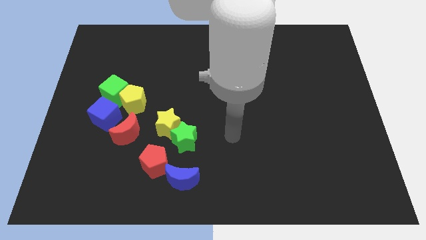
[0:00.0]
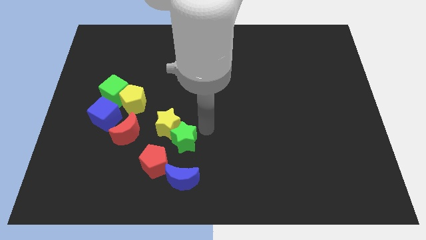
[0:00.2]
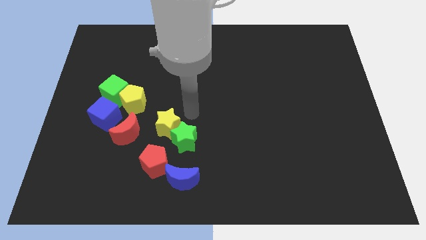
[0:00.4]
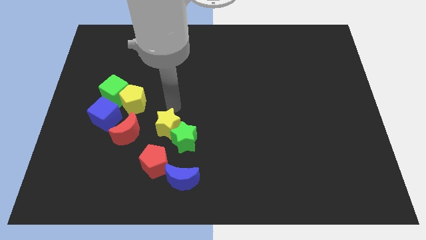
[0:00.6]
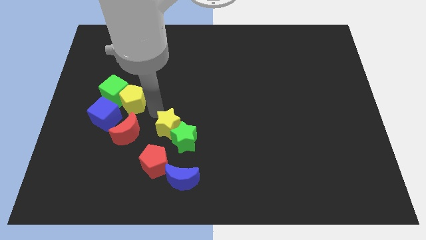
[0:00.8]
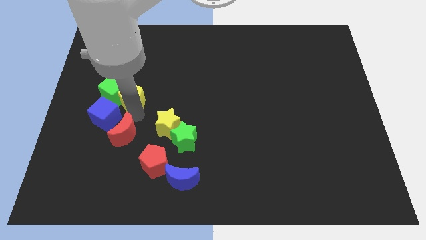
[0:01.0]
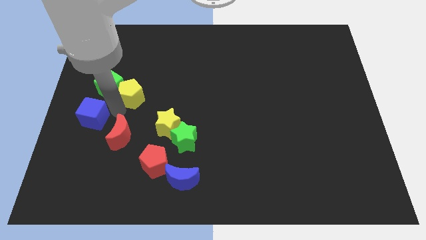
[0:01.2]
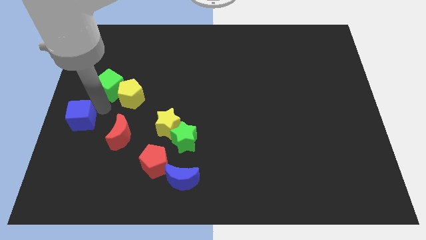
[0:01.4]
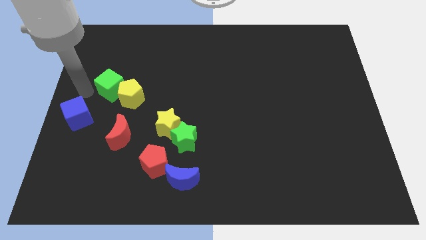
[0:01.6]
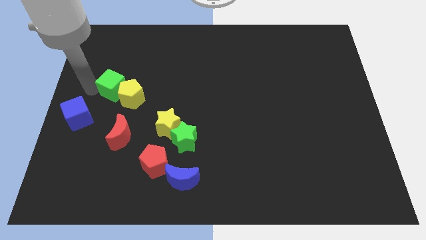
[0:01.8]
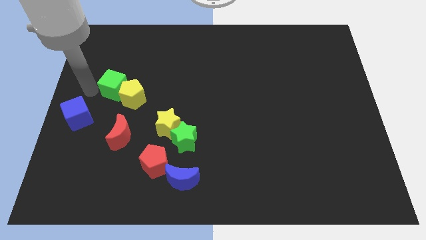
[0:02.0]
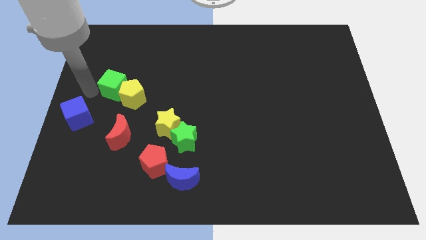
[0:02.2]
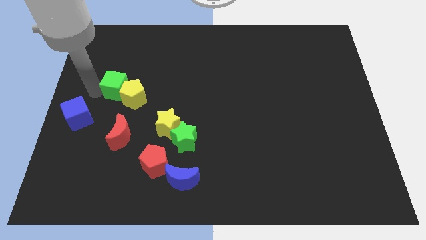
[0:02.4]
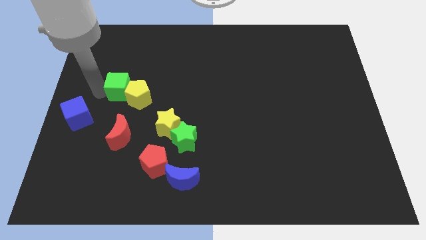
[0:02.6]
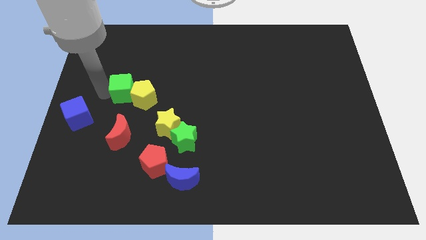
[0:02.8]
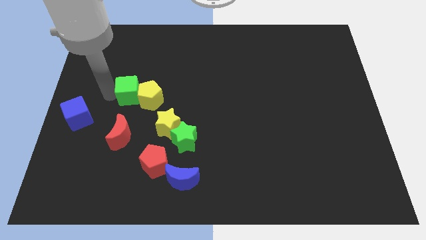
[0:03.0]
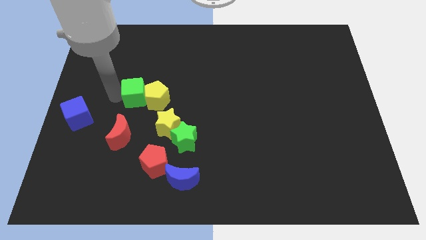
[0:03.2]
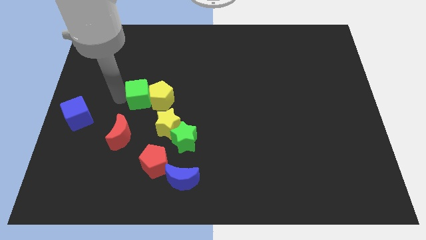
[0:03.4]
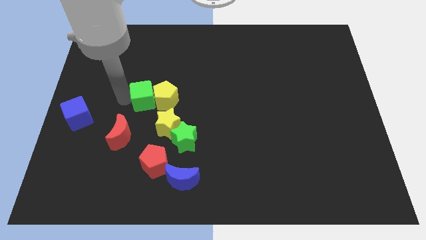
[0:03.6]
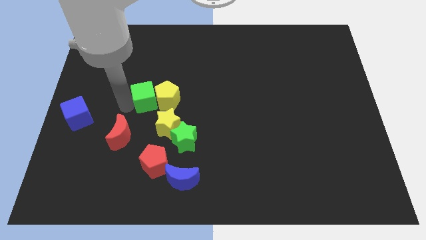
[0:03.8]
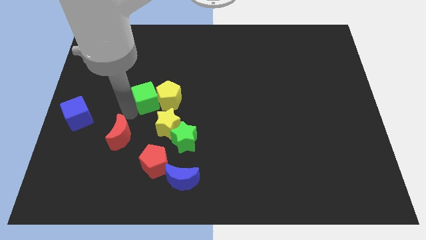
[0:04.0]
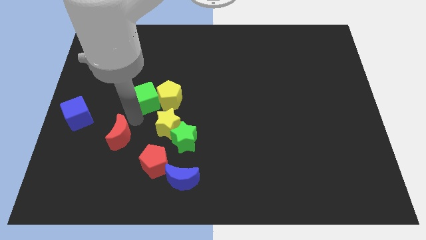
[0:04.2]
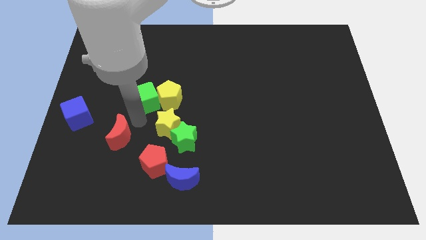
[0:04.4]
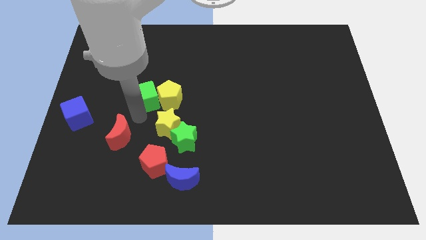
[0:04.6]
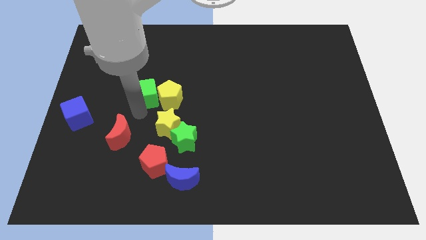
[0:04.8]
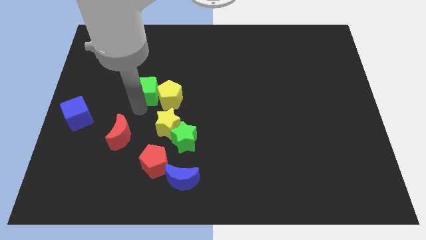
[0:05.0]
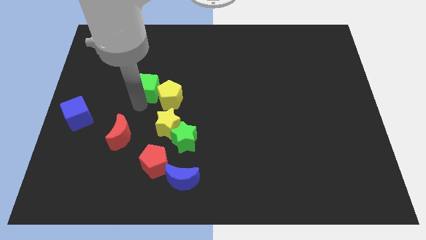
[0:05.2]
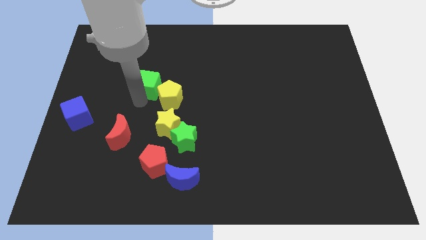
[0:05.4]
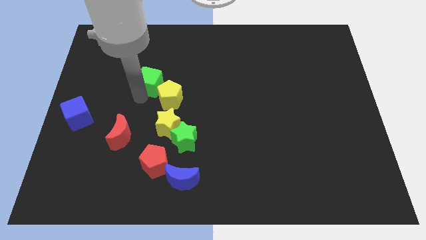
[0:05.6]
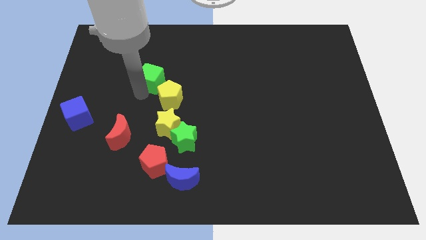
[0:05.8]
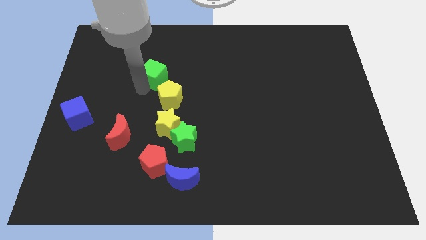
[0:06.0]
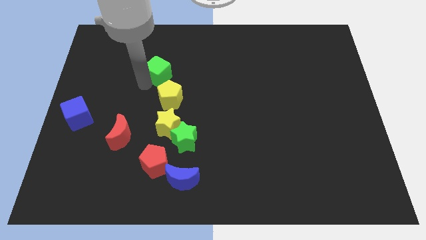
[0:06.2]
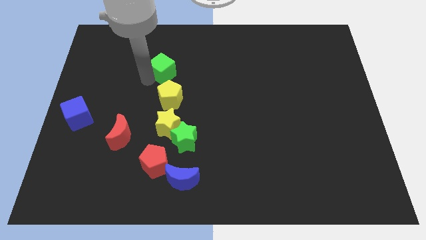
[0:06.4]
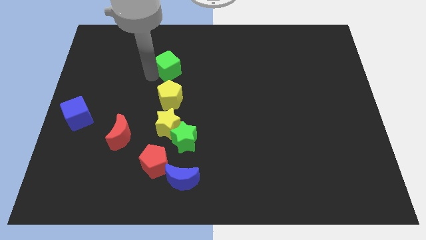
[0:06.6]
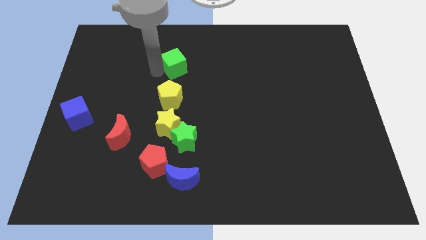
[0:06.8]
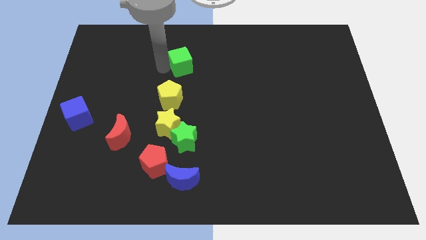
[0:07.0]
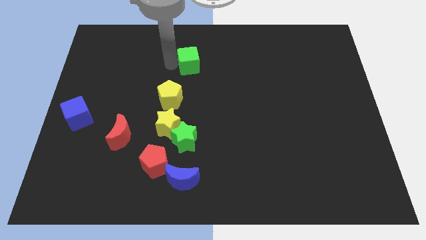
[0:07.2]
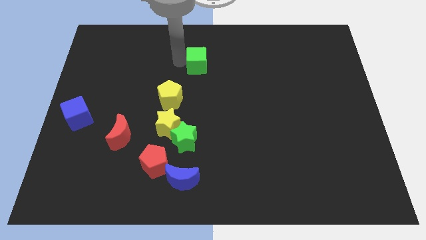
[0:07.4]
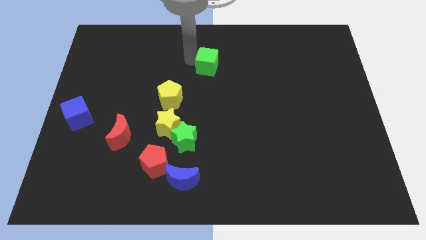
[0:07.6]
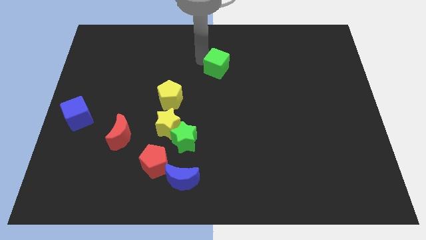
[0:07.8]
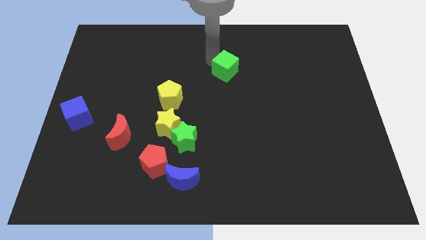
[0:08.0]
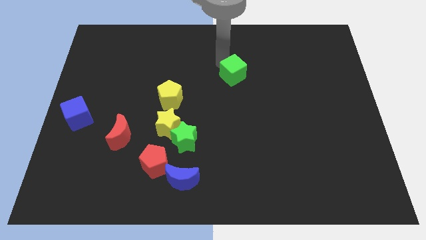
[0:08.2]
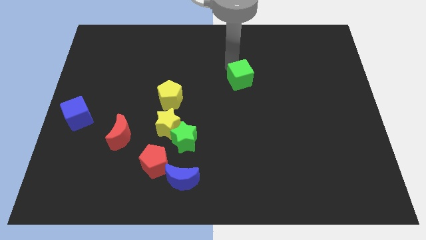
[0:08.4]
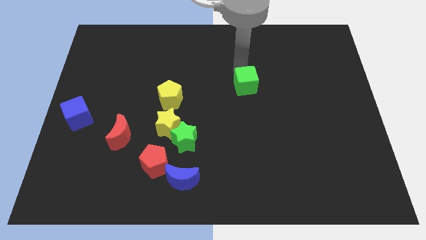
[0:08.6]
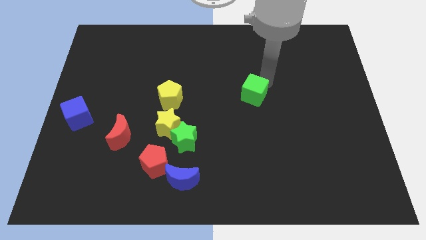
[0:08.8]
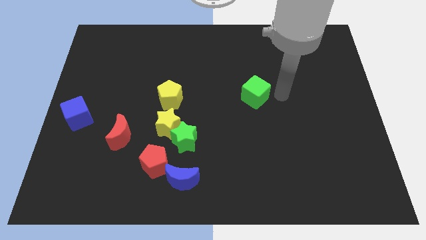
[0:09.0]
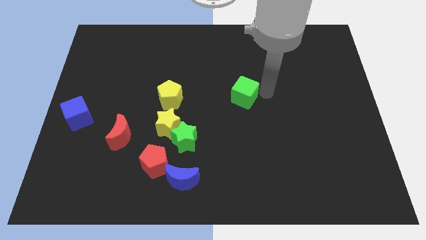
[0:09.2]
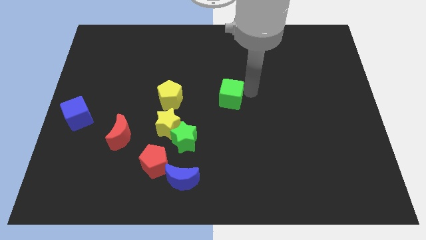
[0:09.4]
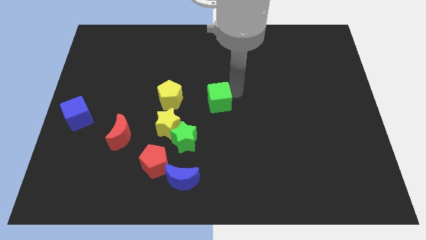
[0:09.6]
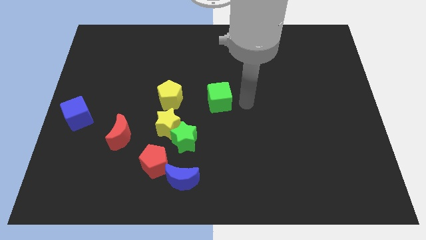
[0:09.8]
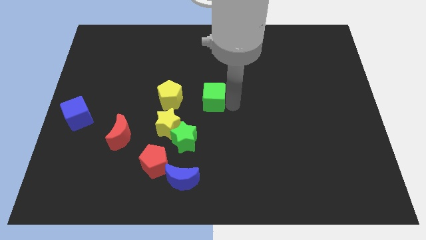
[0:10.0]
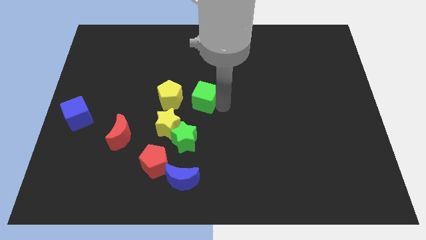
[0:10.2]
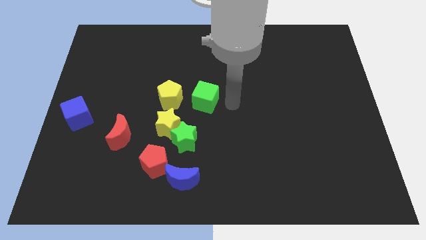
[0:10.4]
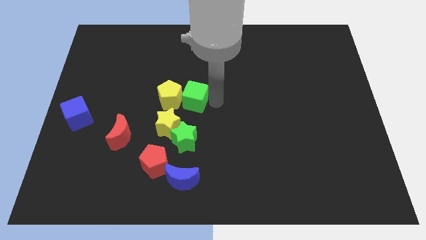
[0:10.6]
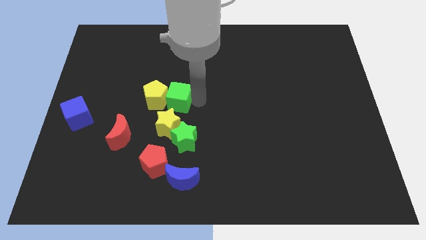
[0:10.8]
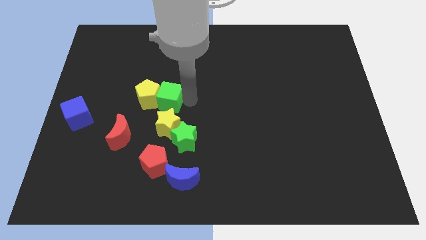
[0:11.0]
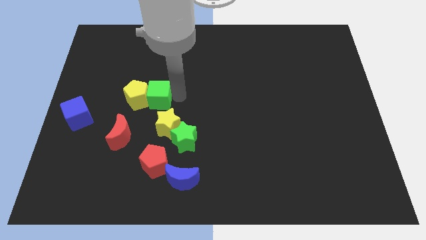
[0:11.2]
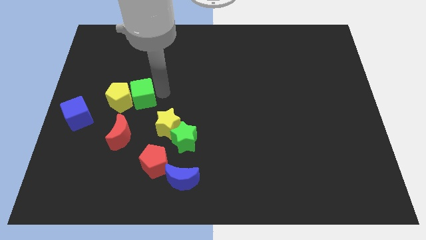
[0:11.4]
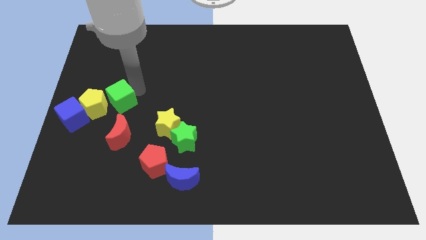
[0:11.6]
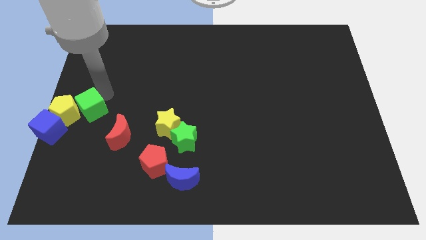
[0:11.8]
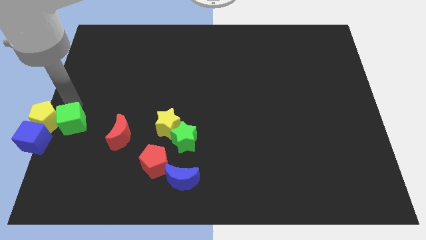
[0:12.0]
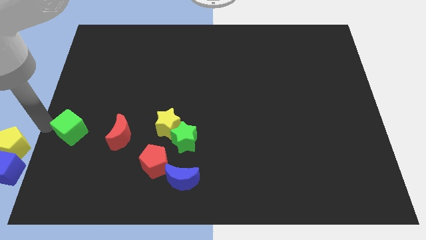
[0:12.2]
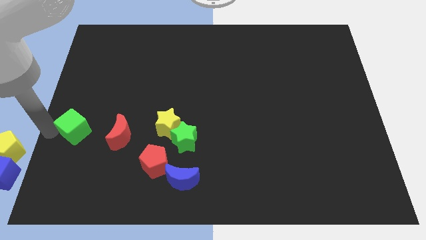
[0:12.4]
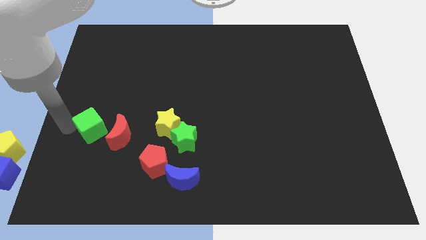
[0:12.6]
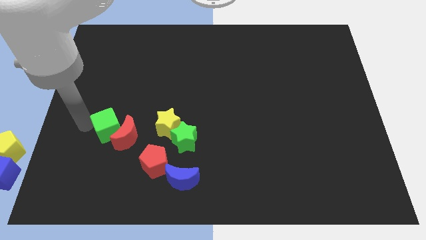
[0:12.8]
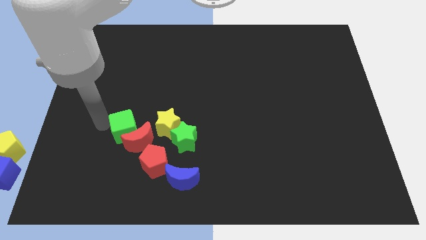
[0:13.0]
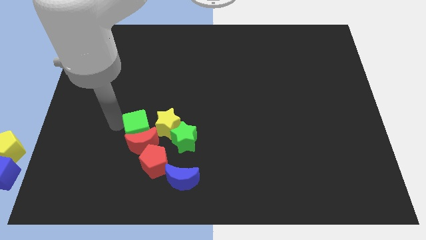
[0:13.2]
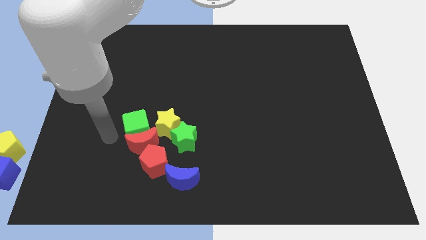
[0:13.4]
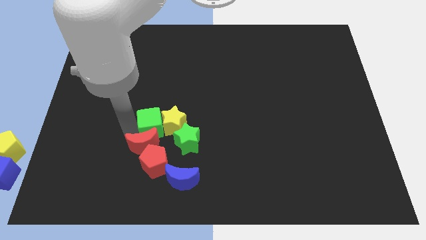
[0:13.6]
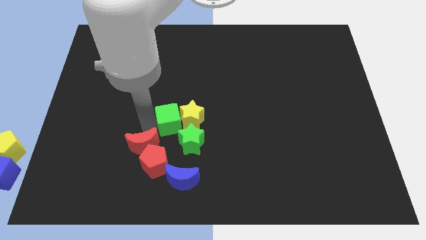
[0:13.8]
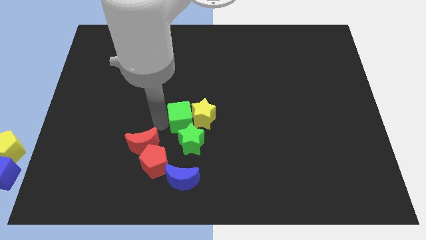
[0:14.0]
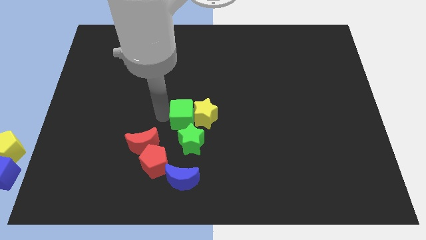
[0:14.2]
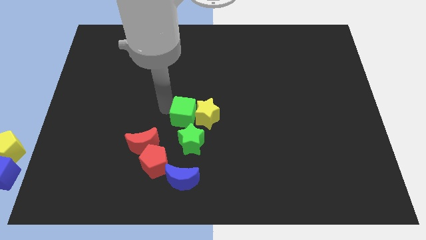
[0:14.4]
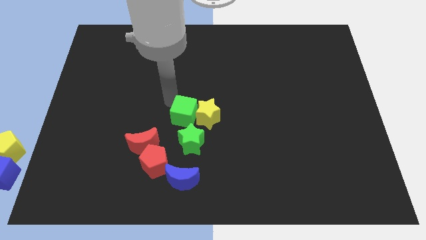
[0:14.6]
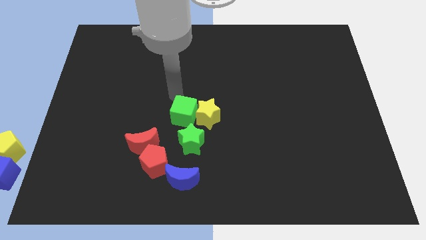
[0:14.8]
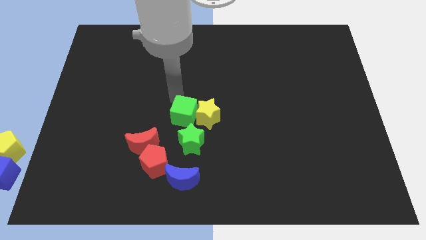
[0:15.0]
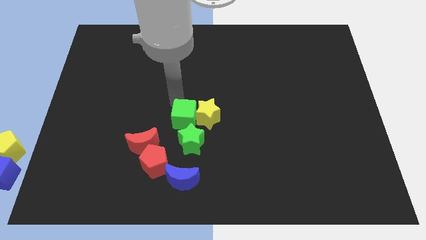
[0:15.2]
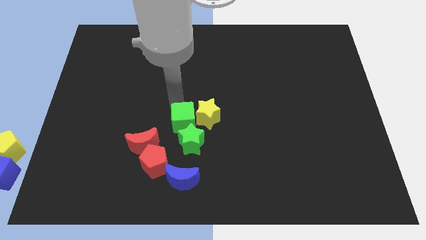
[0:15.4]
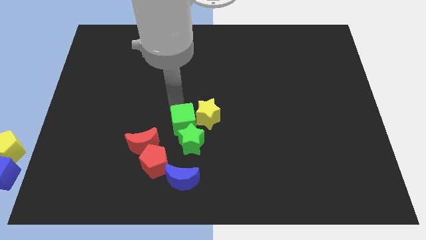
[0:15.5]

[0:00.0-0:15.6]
push the green cube next to the green star
